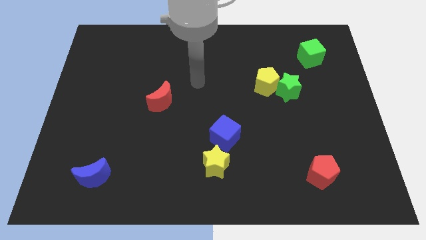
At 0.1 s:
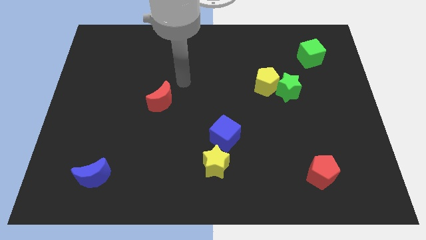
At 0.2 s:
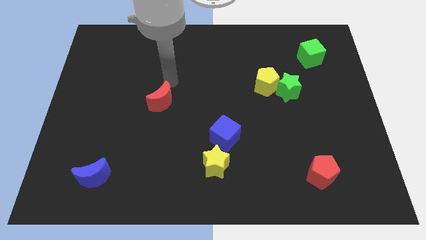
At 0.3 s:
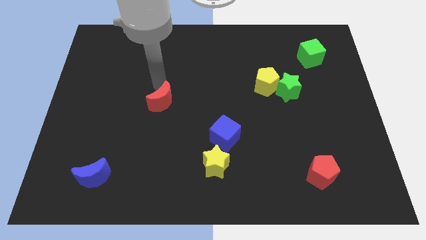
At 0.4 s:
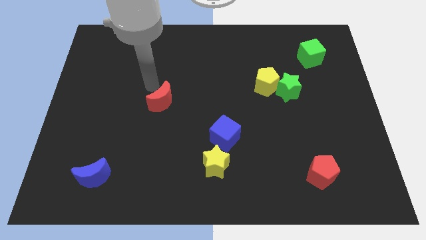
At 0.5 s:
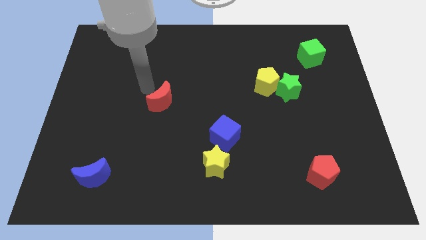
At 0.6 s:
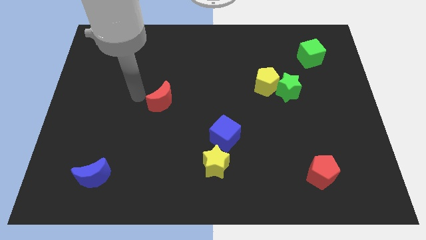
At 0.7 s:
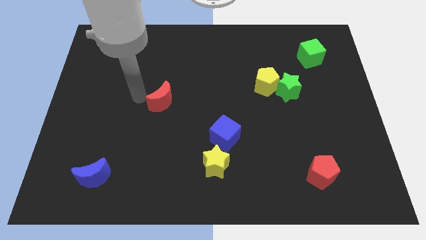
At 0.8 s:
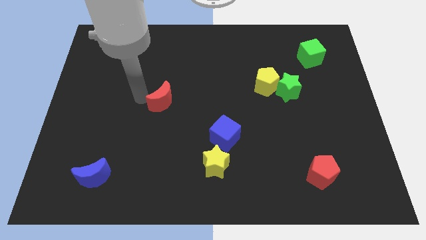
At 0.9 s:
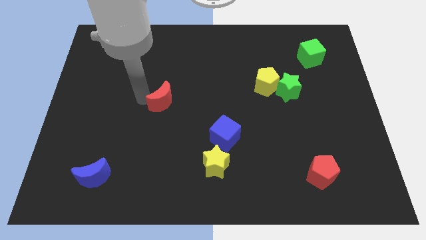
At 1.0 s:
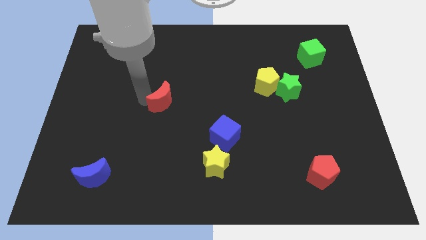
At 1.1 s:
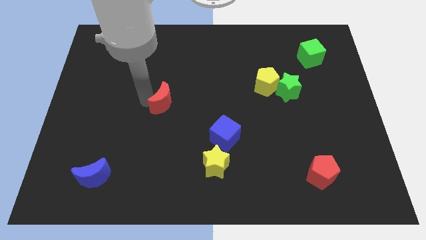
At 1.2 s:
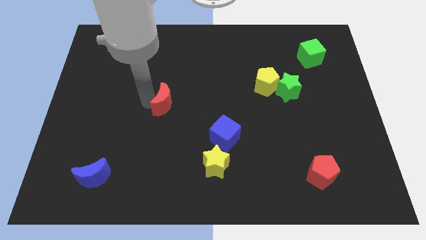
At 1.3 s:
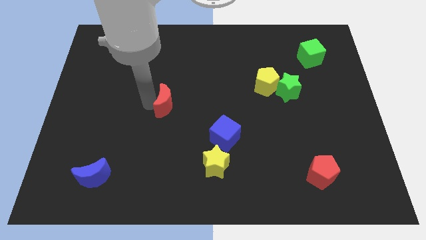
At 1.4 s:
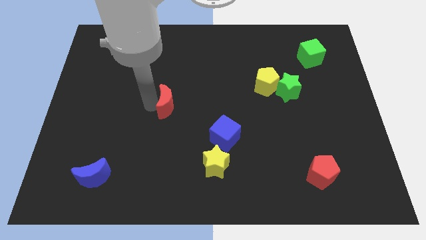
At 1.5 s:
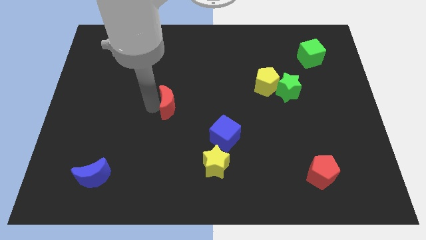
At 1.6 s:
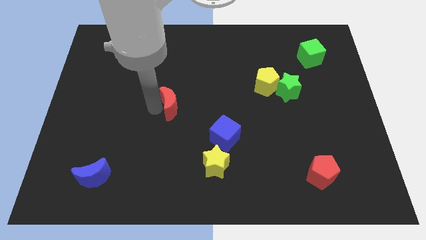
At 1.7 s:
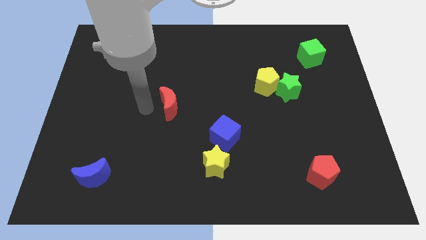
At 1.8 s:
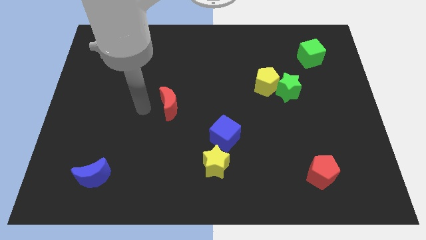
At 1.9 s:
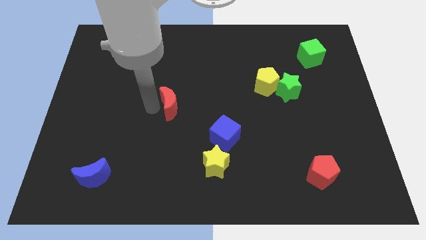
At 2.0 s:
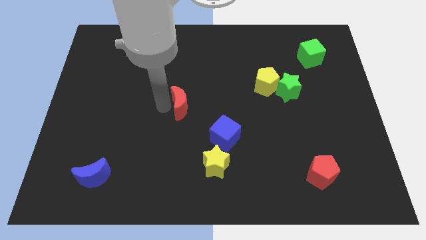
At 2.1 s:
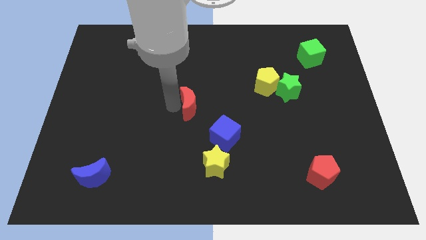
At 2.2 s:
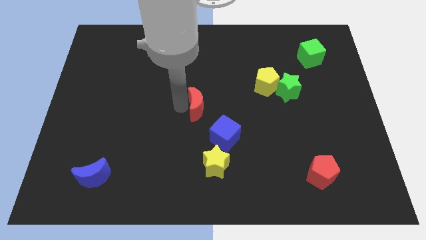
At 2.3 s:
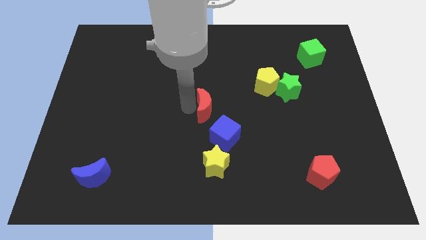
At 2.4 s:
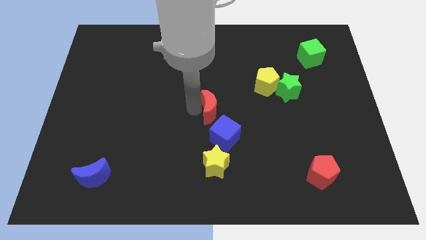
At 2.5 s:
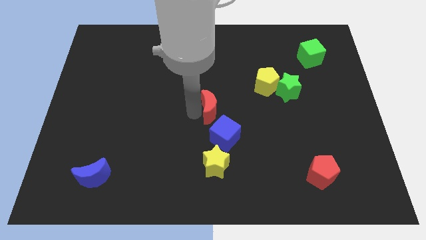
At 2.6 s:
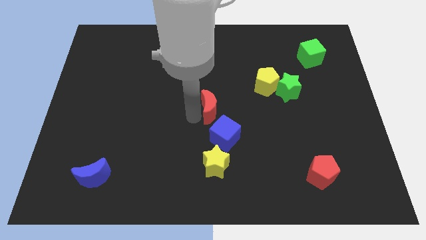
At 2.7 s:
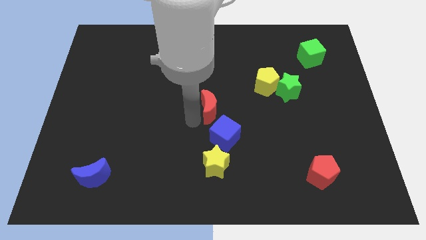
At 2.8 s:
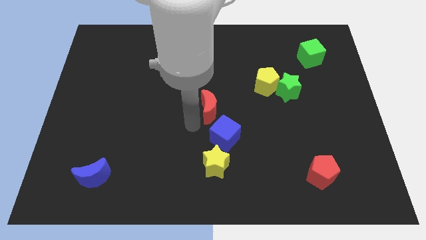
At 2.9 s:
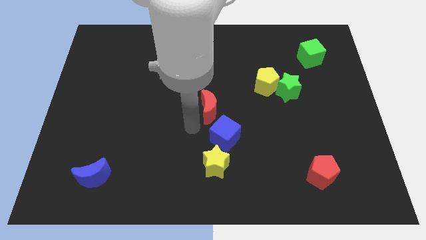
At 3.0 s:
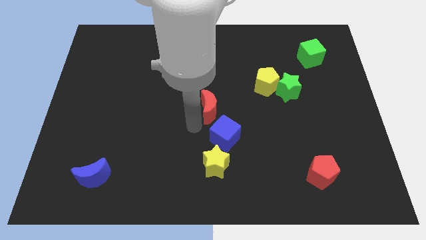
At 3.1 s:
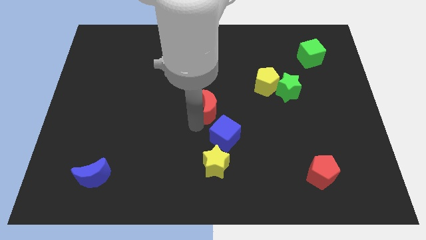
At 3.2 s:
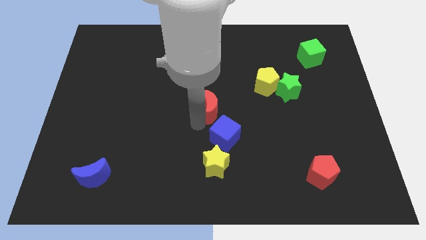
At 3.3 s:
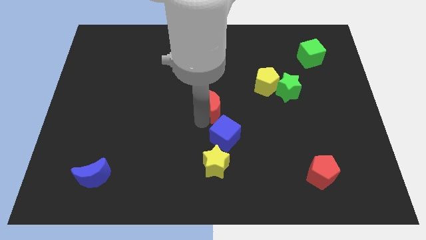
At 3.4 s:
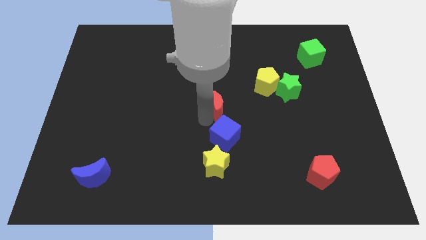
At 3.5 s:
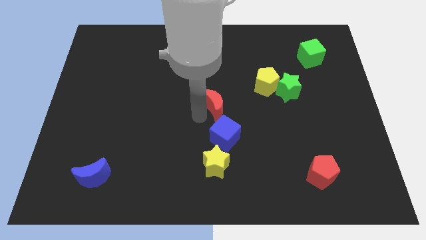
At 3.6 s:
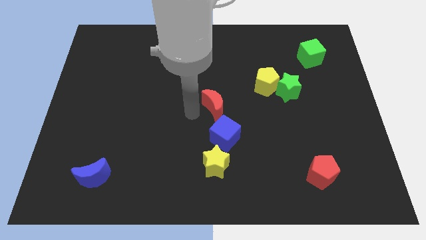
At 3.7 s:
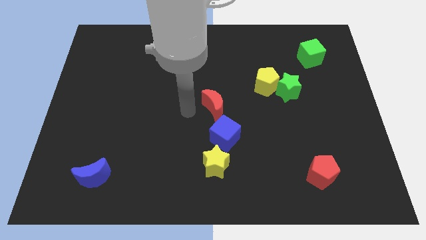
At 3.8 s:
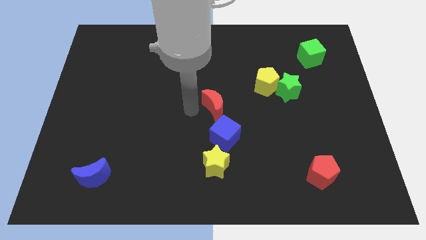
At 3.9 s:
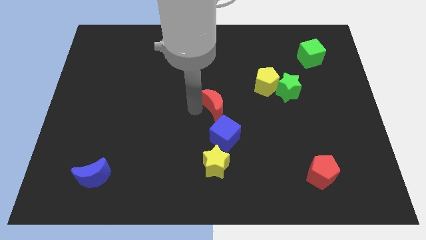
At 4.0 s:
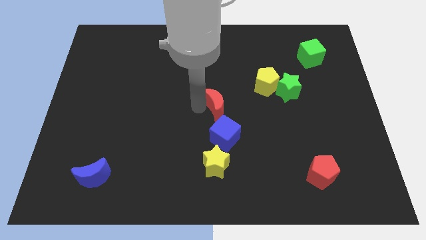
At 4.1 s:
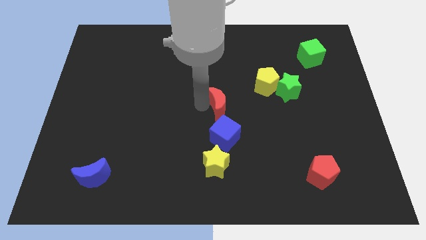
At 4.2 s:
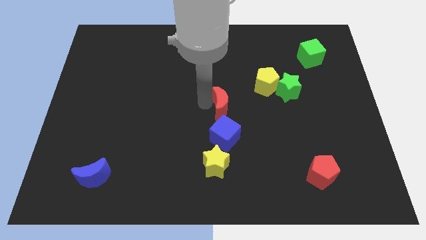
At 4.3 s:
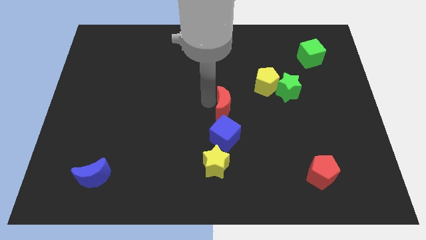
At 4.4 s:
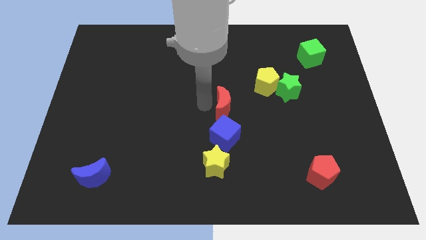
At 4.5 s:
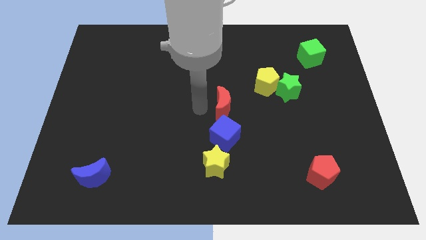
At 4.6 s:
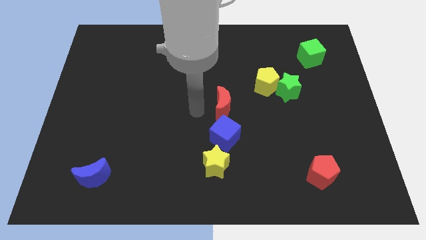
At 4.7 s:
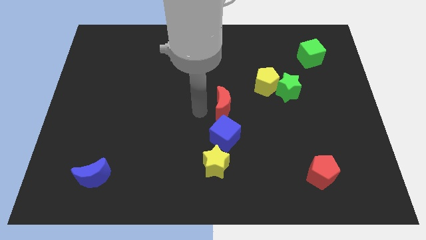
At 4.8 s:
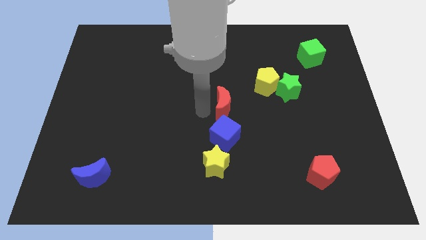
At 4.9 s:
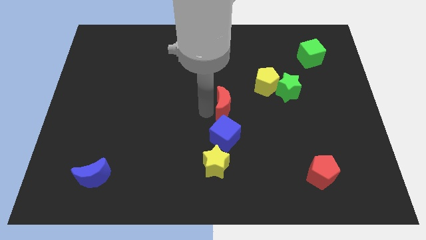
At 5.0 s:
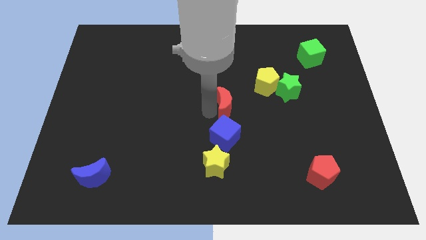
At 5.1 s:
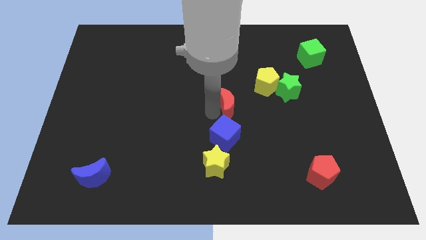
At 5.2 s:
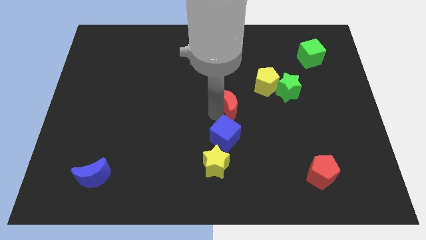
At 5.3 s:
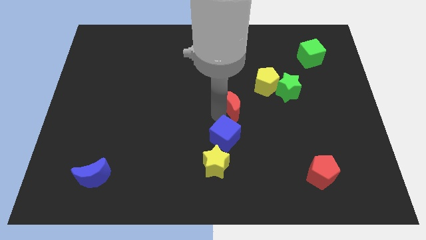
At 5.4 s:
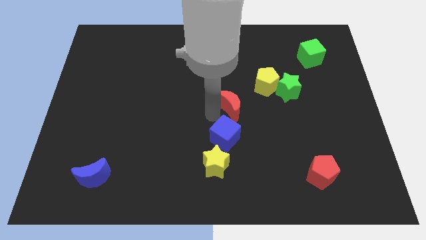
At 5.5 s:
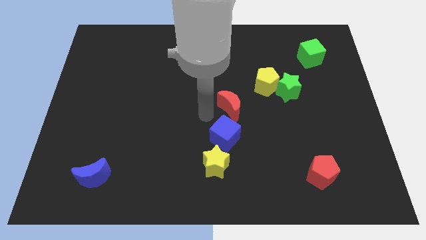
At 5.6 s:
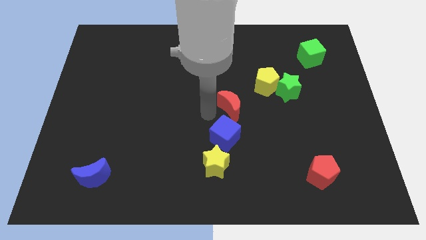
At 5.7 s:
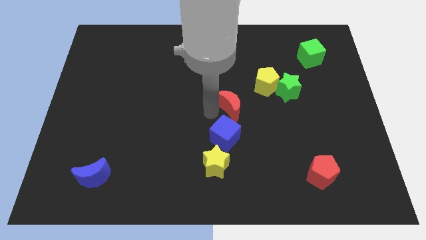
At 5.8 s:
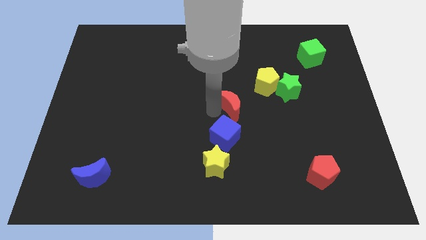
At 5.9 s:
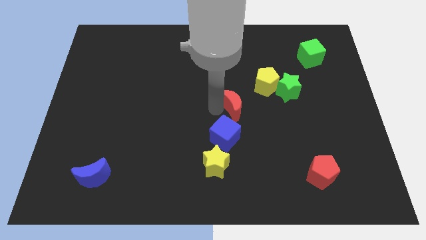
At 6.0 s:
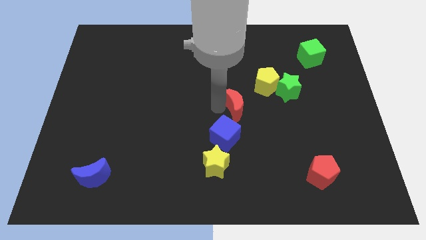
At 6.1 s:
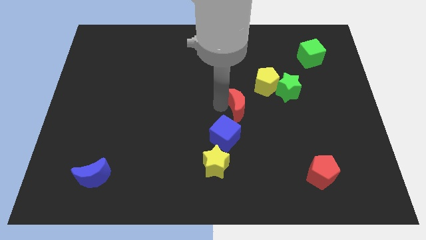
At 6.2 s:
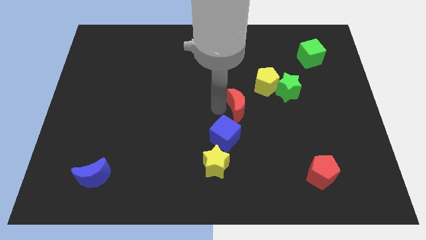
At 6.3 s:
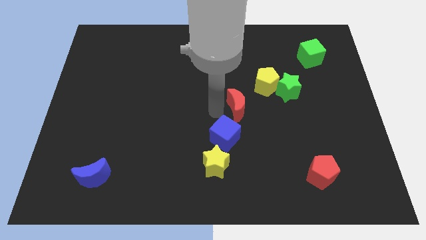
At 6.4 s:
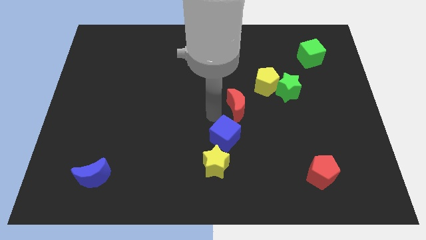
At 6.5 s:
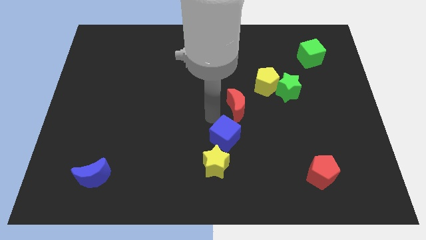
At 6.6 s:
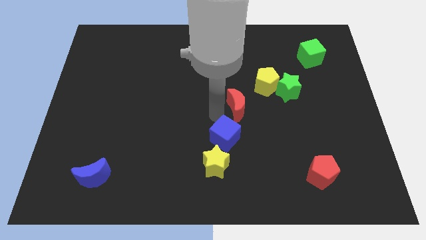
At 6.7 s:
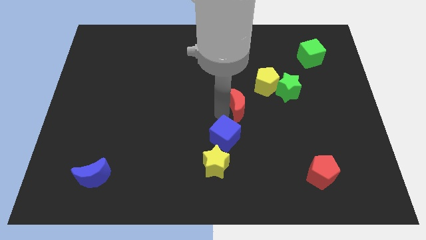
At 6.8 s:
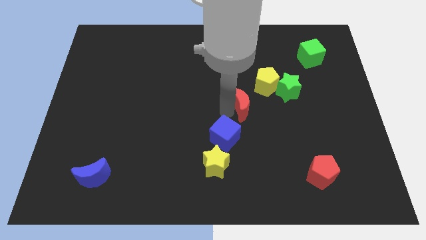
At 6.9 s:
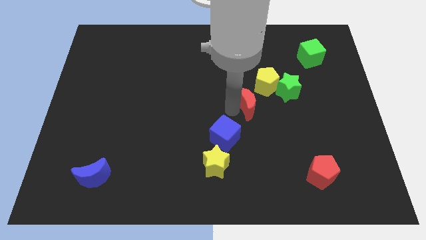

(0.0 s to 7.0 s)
push the red moon right

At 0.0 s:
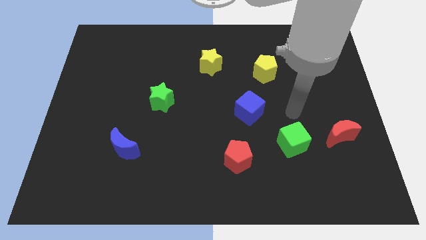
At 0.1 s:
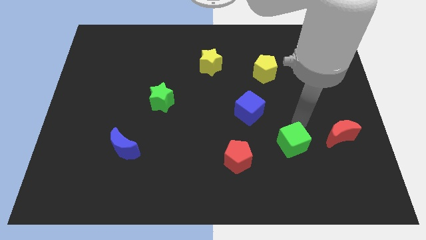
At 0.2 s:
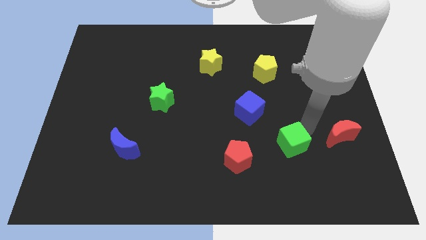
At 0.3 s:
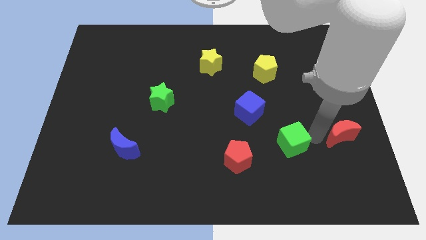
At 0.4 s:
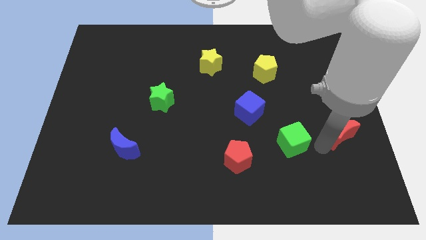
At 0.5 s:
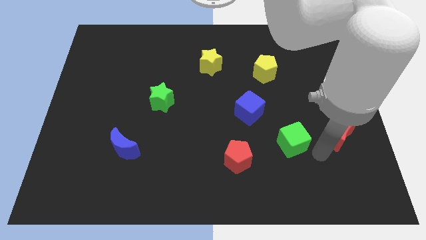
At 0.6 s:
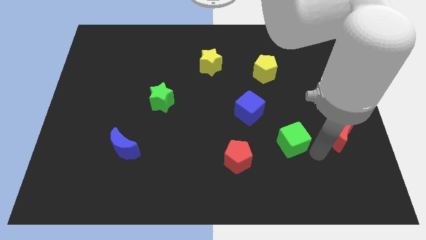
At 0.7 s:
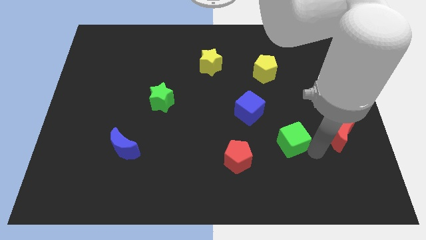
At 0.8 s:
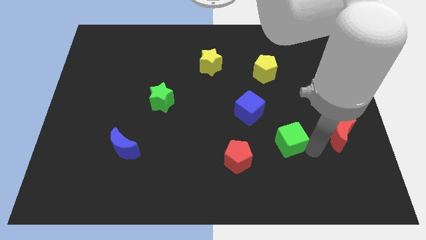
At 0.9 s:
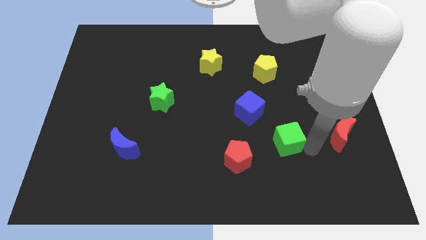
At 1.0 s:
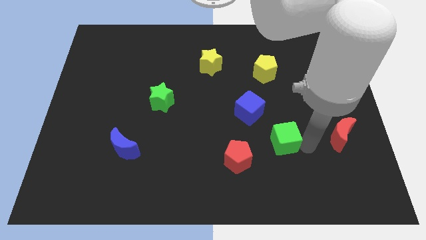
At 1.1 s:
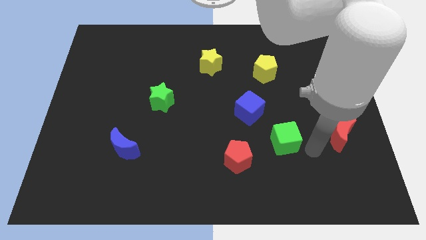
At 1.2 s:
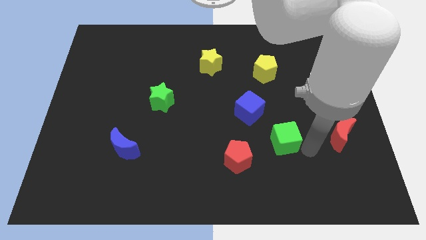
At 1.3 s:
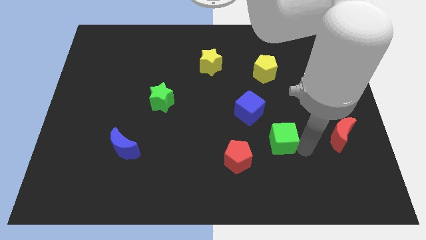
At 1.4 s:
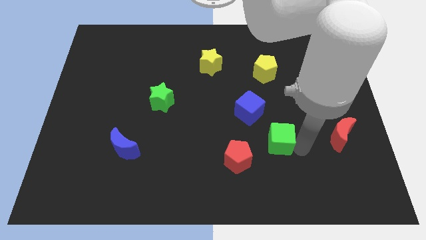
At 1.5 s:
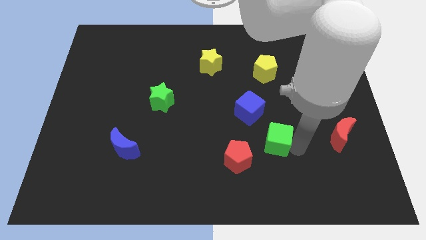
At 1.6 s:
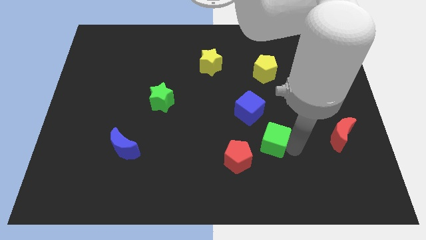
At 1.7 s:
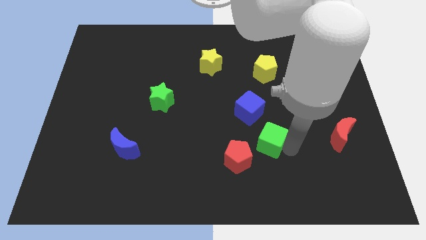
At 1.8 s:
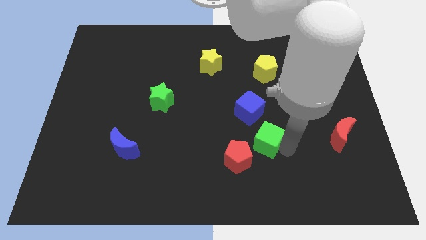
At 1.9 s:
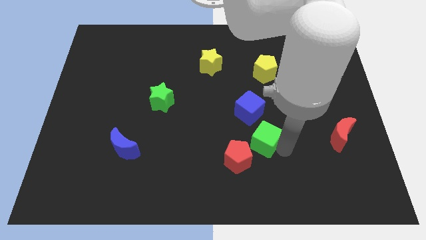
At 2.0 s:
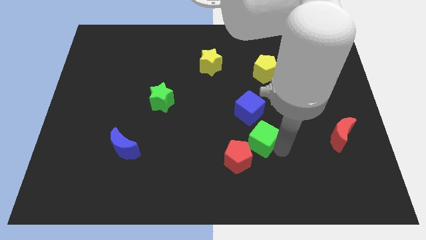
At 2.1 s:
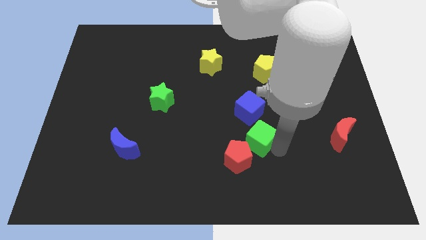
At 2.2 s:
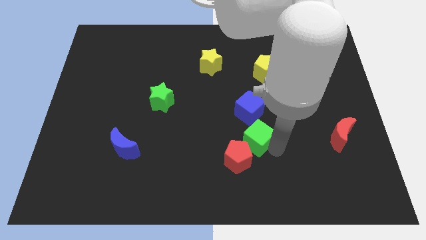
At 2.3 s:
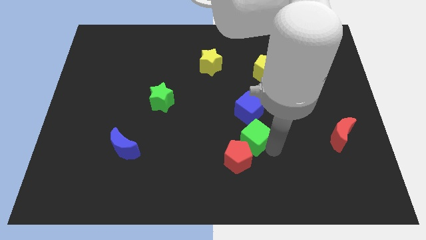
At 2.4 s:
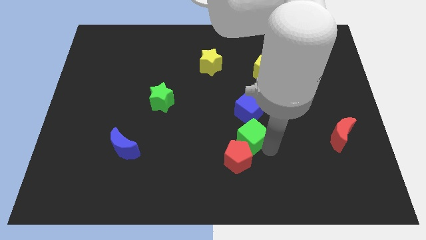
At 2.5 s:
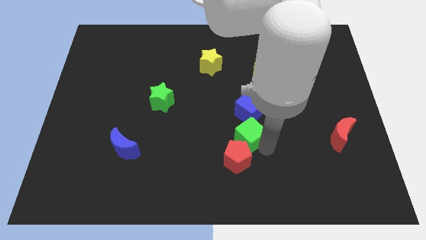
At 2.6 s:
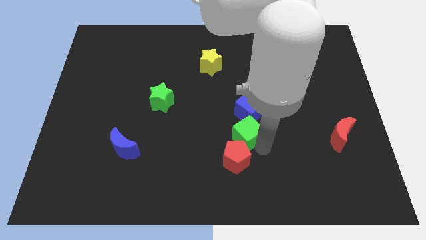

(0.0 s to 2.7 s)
slide the green cube a little upwards and then left
